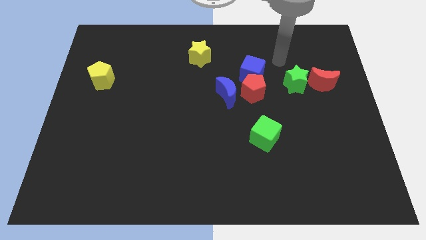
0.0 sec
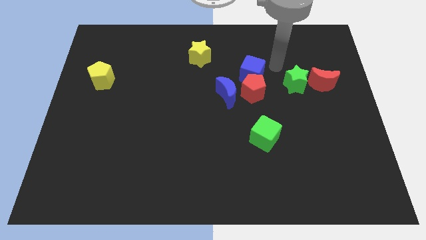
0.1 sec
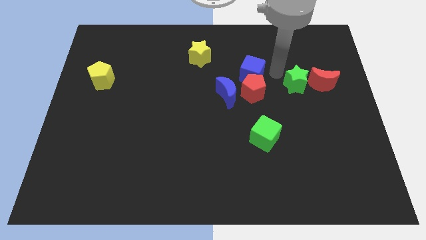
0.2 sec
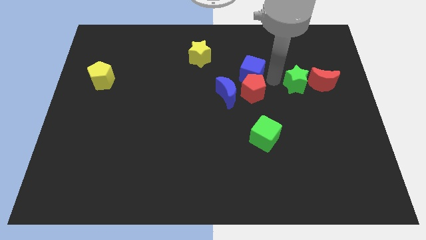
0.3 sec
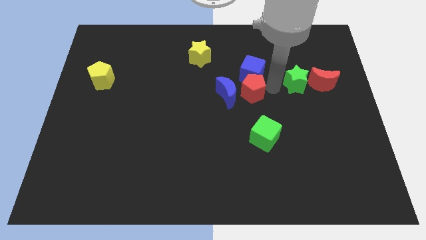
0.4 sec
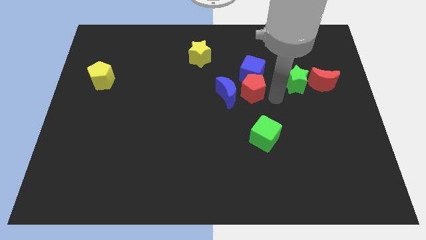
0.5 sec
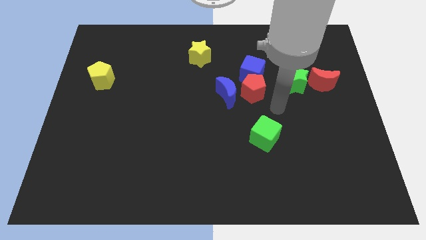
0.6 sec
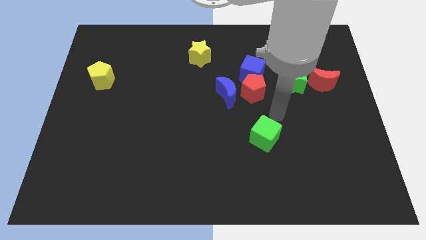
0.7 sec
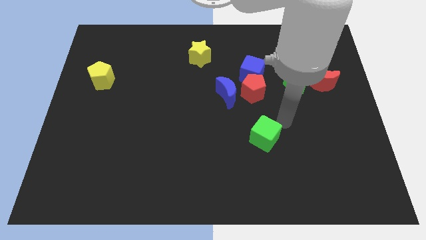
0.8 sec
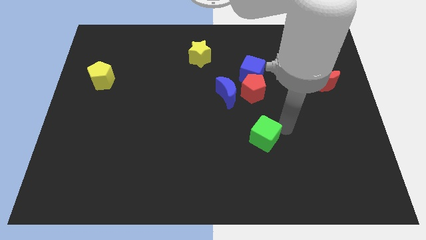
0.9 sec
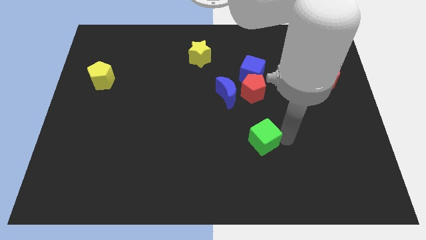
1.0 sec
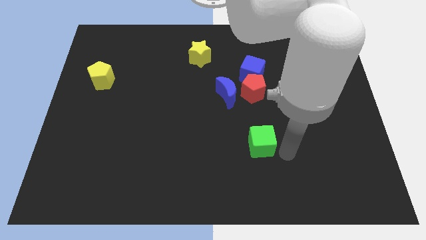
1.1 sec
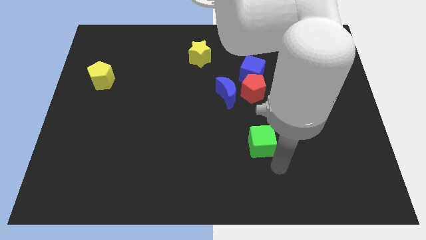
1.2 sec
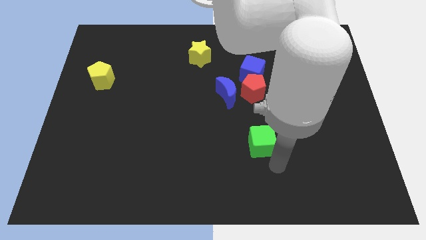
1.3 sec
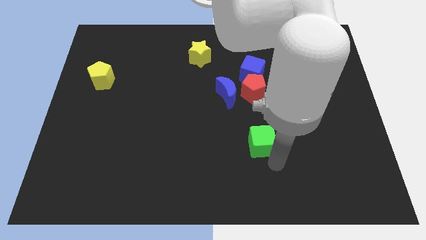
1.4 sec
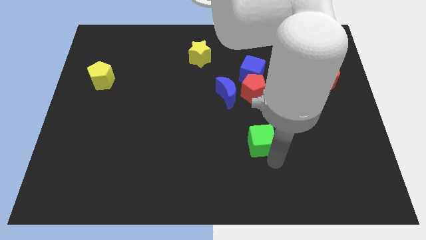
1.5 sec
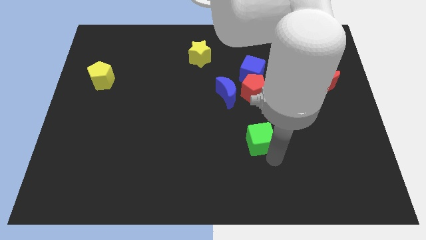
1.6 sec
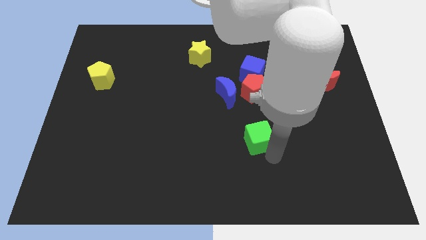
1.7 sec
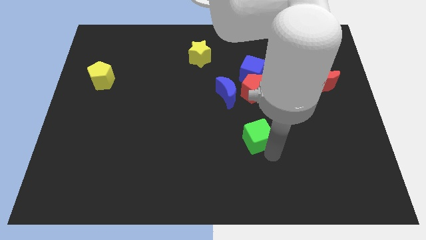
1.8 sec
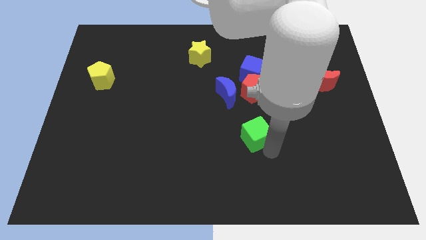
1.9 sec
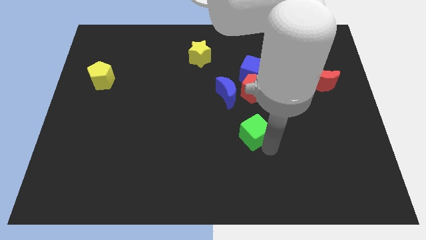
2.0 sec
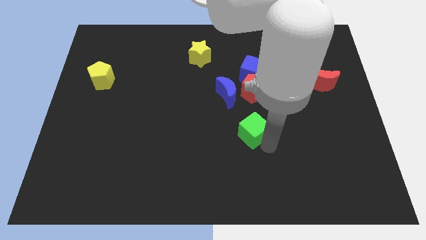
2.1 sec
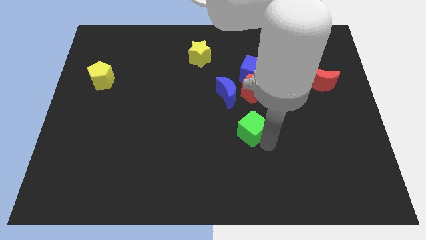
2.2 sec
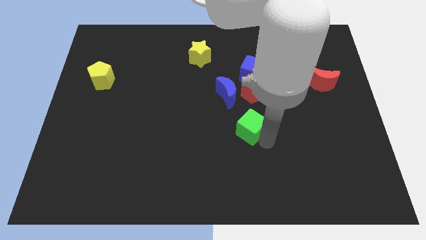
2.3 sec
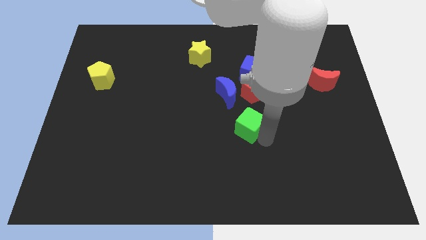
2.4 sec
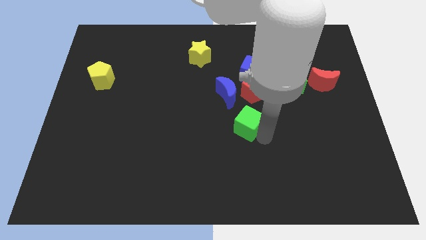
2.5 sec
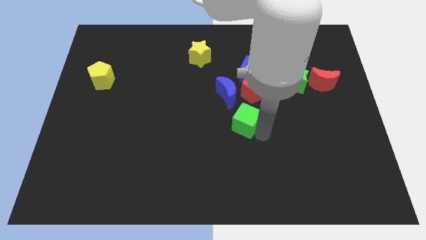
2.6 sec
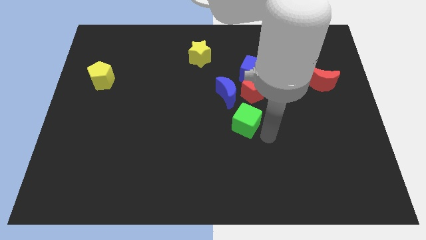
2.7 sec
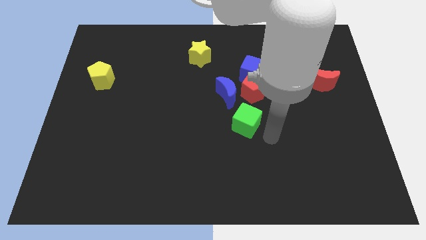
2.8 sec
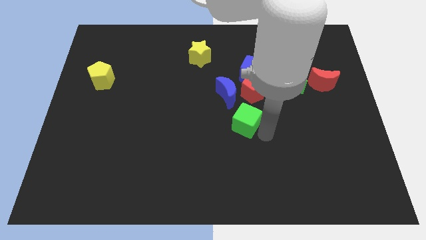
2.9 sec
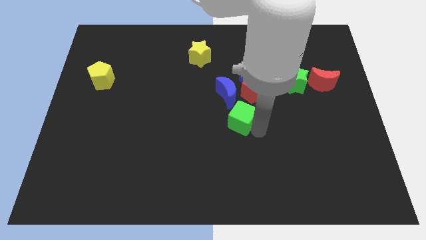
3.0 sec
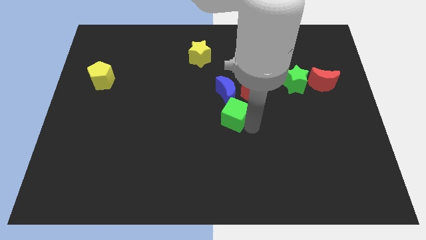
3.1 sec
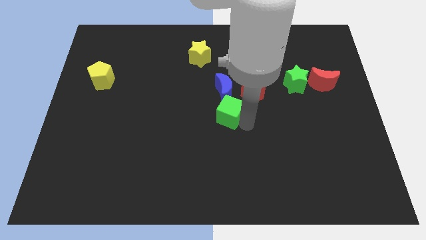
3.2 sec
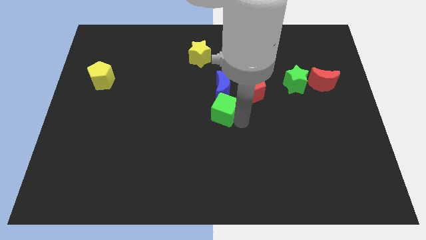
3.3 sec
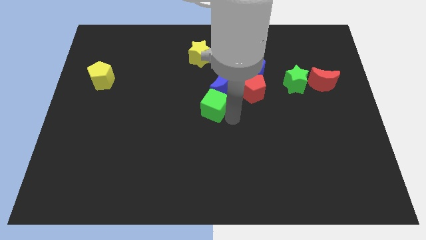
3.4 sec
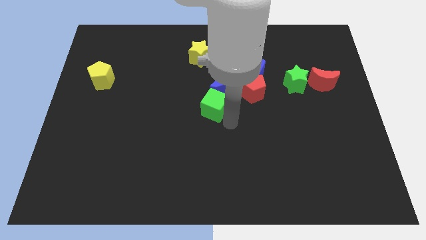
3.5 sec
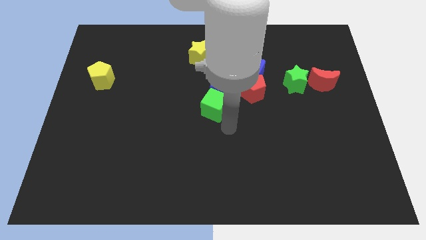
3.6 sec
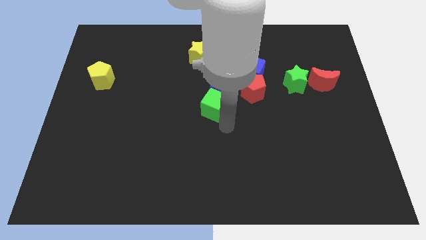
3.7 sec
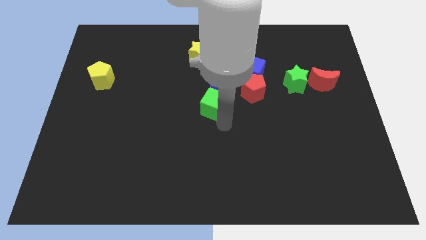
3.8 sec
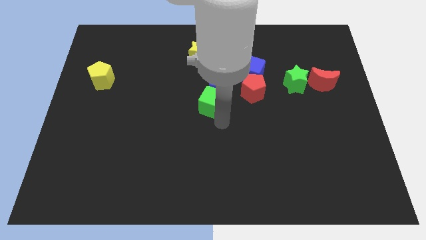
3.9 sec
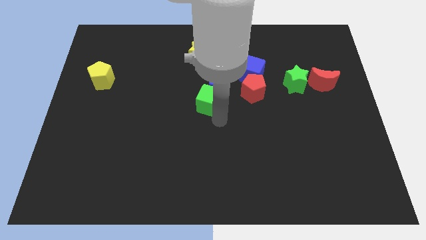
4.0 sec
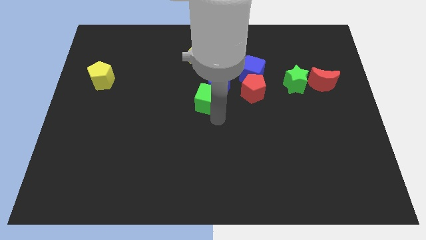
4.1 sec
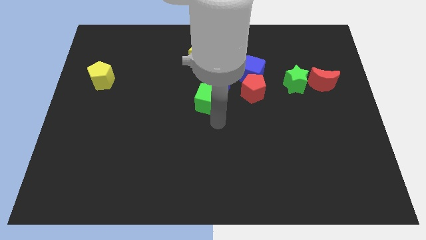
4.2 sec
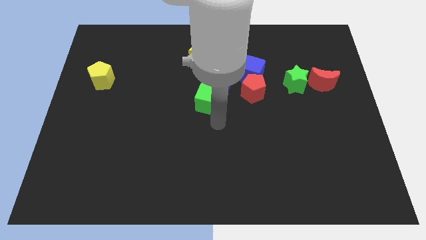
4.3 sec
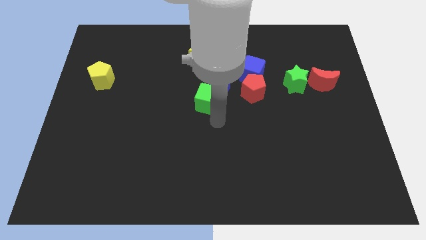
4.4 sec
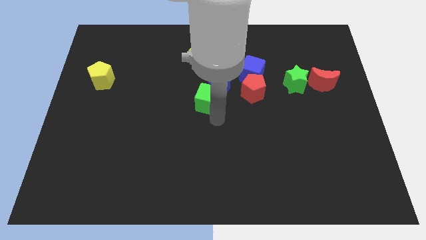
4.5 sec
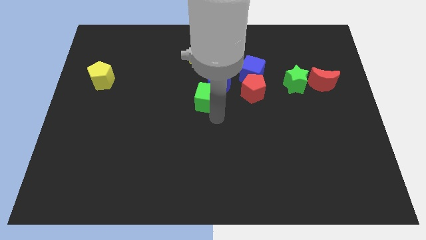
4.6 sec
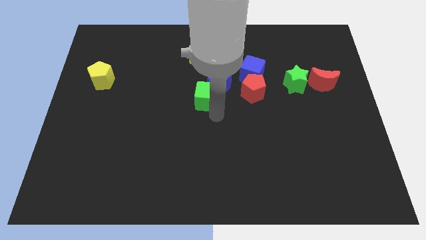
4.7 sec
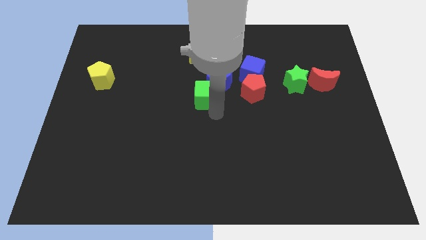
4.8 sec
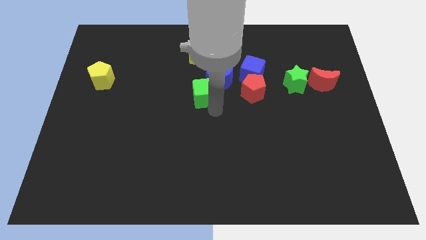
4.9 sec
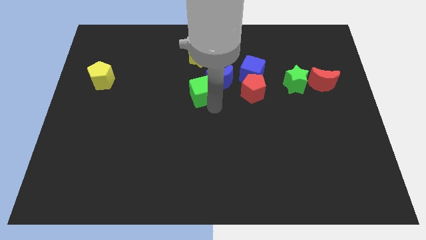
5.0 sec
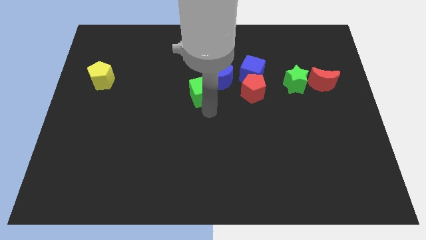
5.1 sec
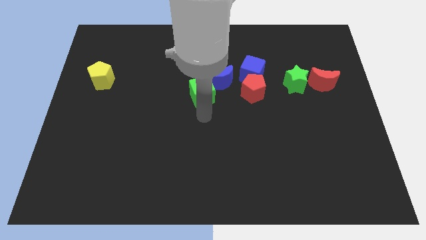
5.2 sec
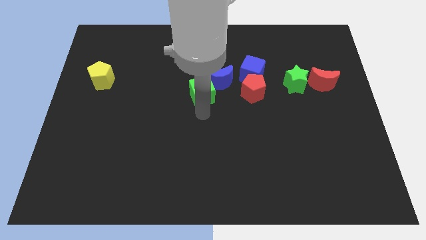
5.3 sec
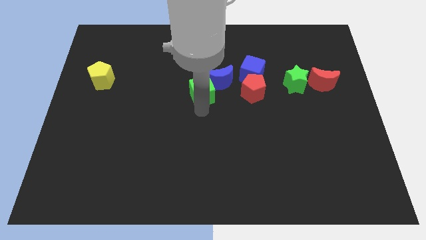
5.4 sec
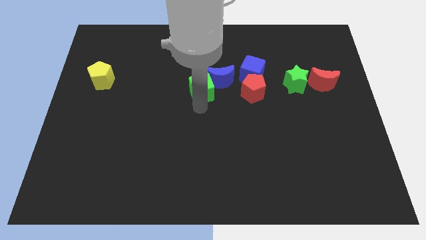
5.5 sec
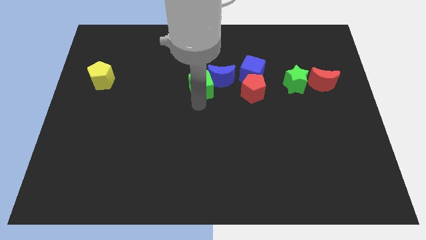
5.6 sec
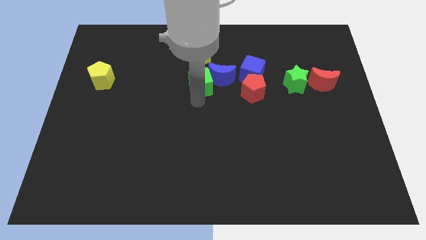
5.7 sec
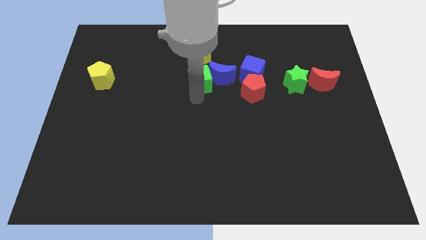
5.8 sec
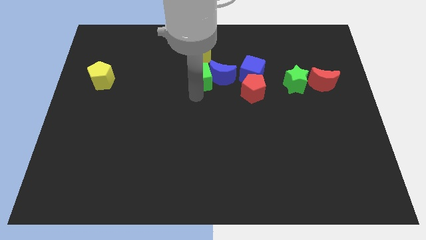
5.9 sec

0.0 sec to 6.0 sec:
slide the green cube to the top left side of the blue moon

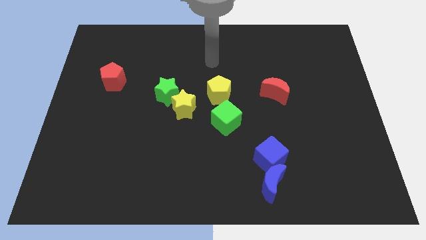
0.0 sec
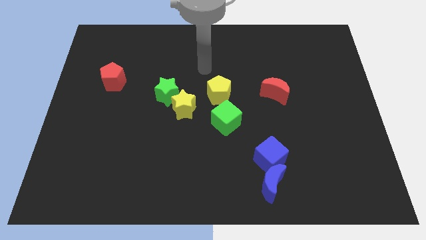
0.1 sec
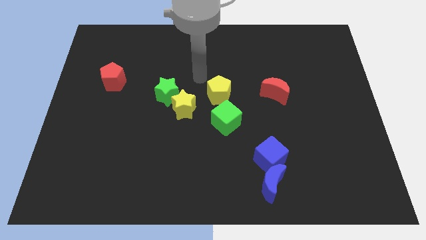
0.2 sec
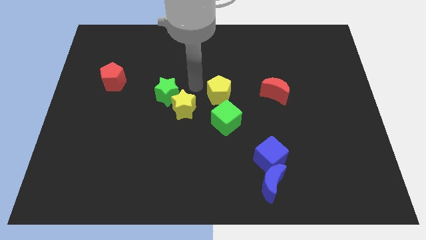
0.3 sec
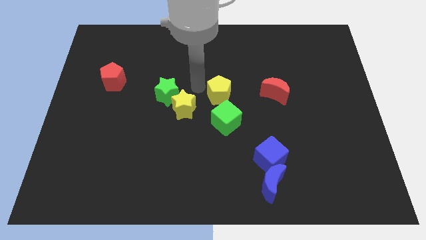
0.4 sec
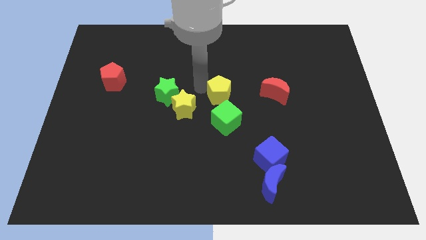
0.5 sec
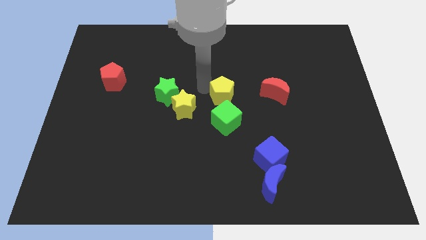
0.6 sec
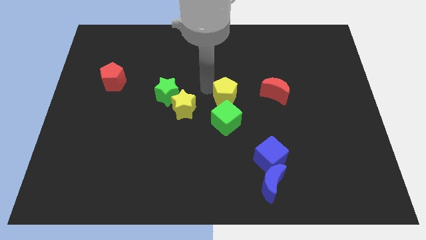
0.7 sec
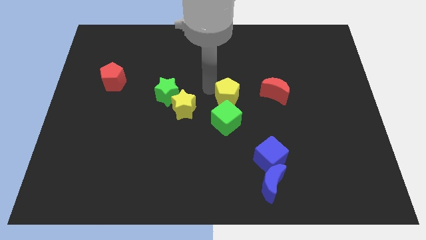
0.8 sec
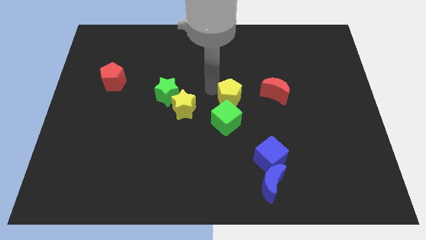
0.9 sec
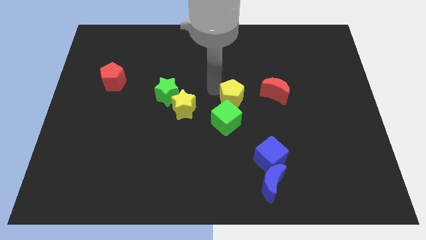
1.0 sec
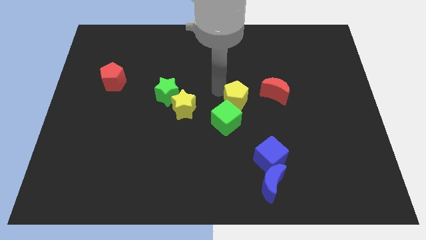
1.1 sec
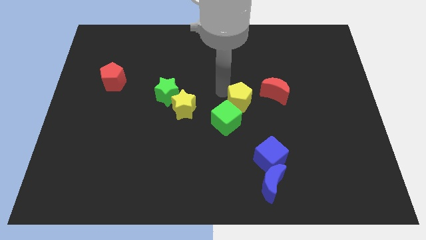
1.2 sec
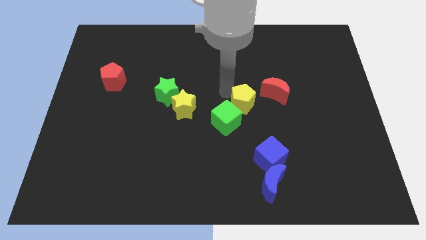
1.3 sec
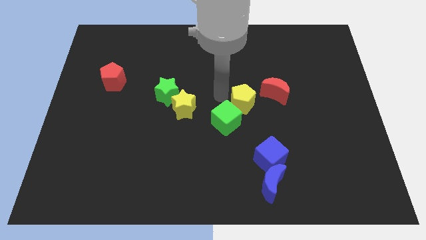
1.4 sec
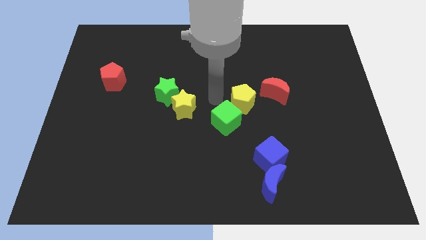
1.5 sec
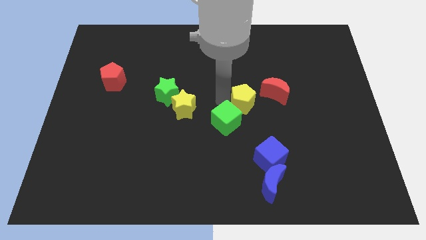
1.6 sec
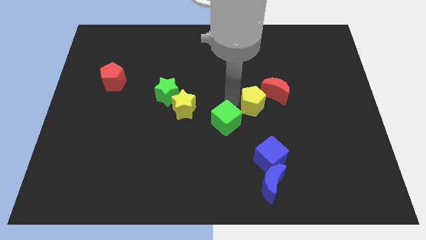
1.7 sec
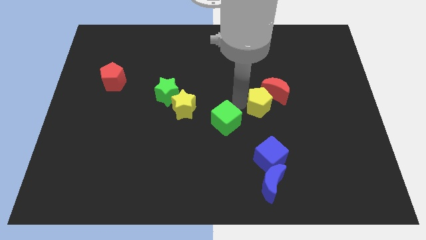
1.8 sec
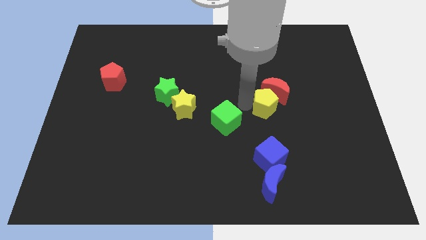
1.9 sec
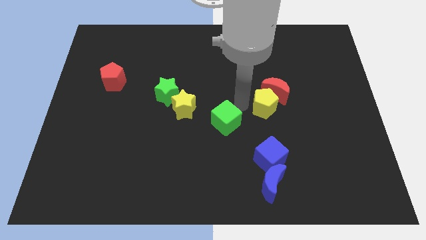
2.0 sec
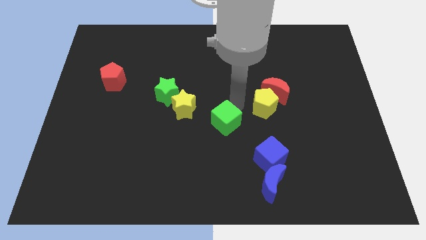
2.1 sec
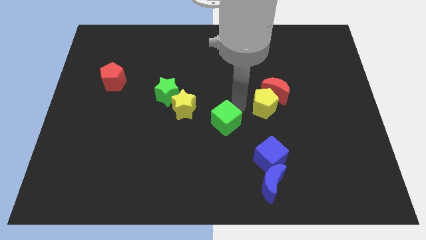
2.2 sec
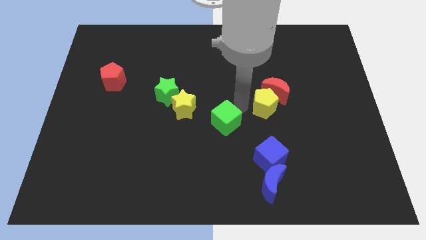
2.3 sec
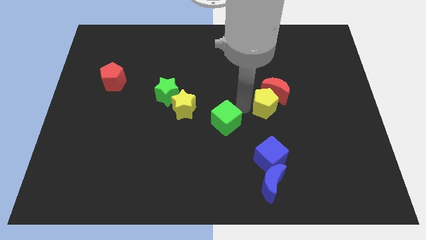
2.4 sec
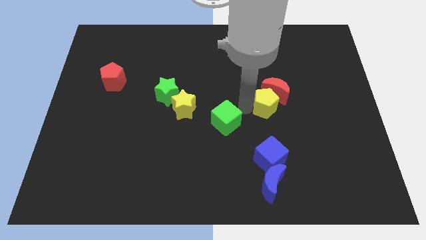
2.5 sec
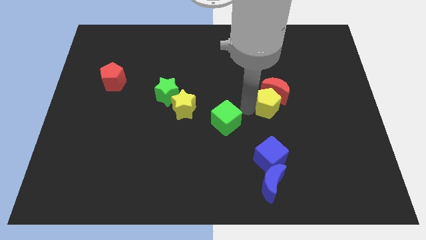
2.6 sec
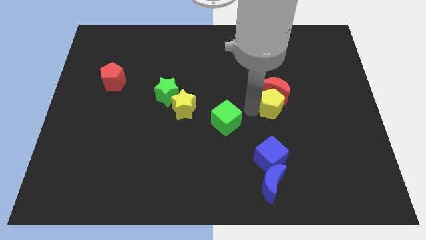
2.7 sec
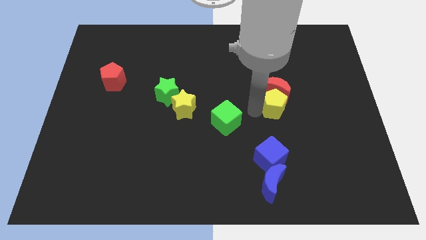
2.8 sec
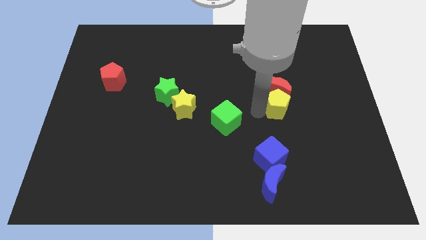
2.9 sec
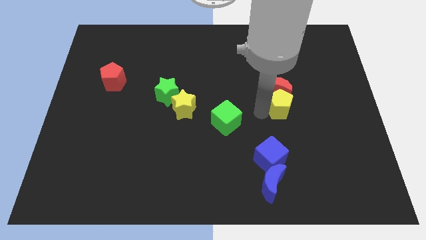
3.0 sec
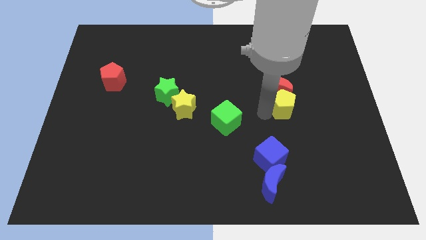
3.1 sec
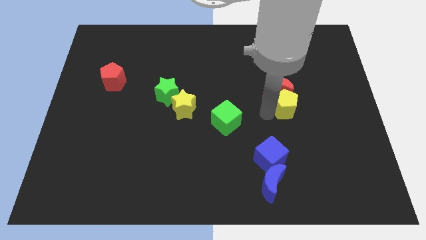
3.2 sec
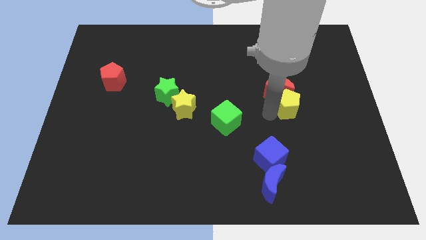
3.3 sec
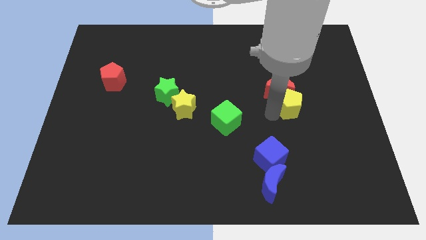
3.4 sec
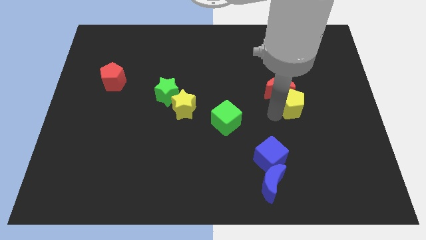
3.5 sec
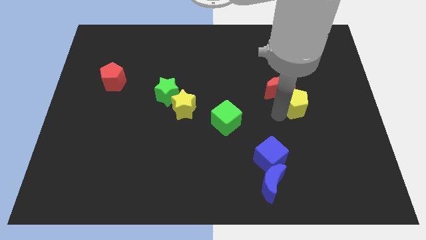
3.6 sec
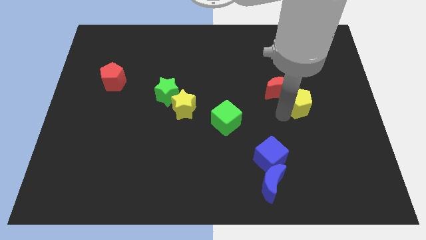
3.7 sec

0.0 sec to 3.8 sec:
move the yellow pentagon just right of the red moon
